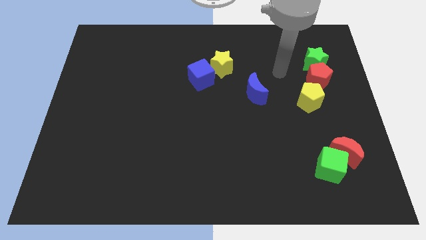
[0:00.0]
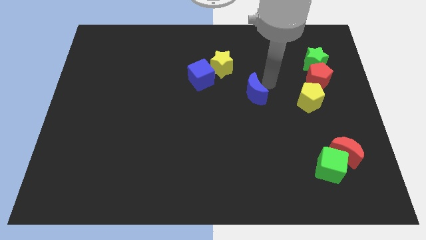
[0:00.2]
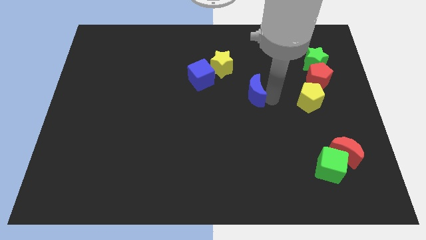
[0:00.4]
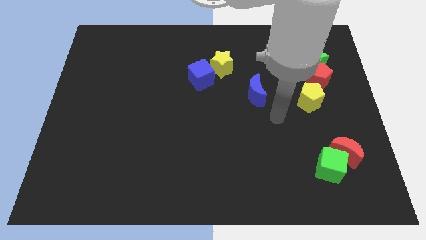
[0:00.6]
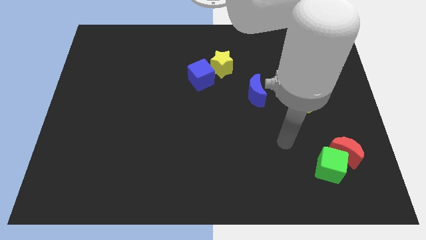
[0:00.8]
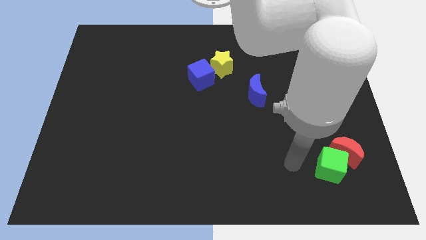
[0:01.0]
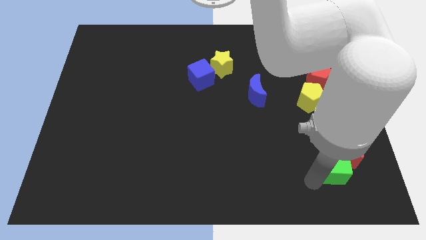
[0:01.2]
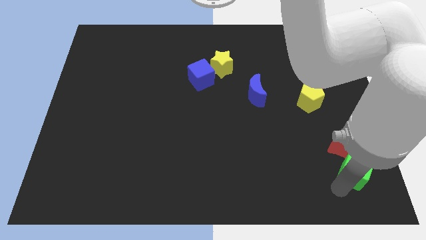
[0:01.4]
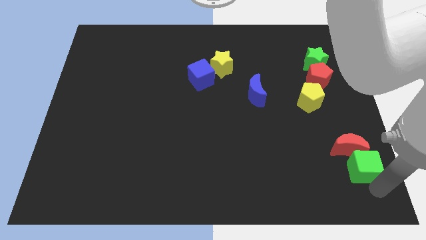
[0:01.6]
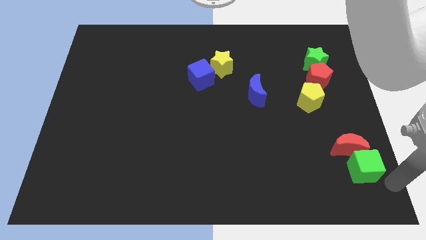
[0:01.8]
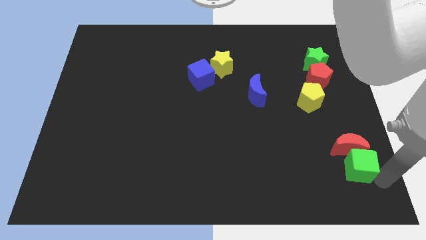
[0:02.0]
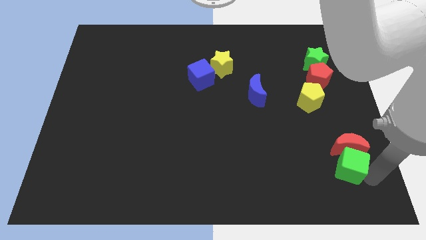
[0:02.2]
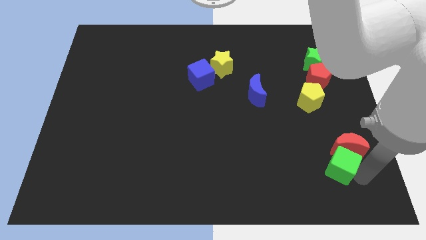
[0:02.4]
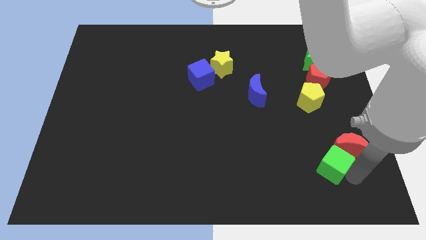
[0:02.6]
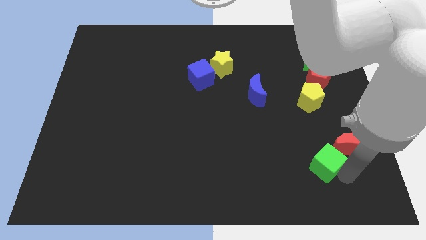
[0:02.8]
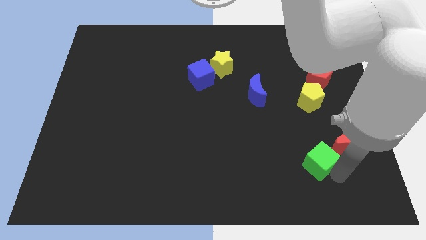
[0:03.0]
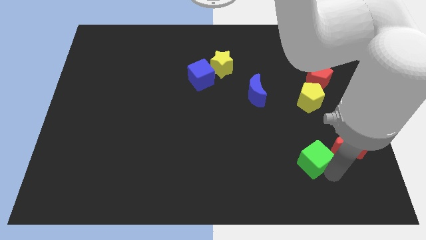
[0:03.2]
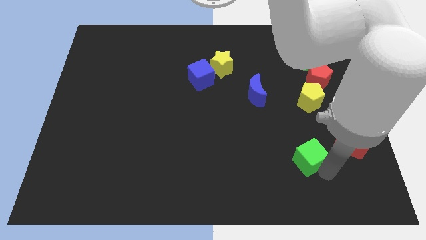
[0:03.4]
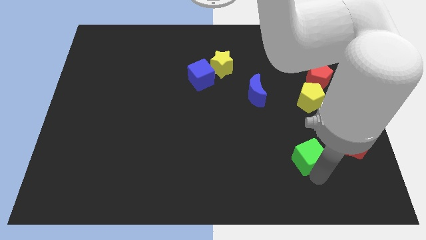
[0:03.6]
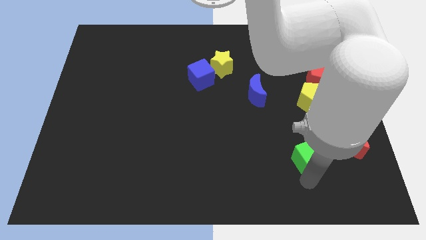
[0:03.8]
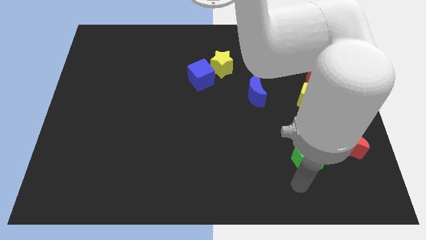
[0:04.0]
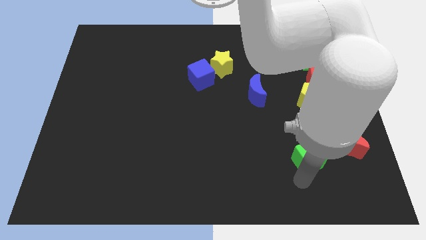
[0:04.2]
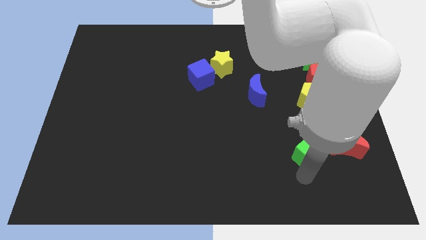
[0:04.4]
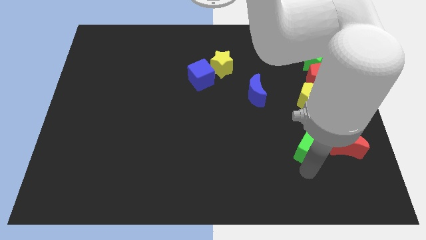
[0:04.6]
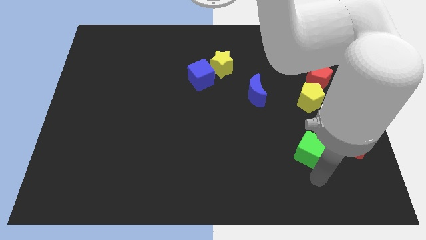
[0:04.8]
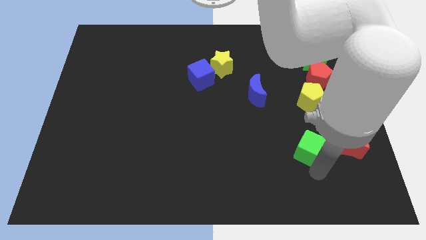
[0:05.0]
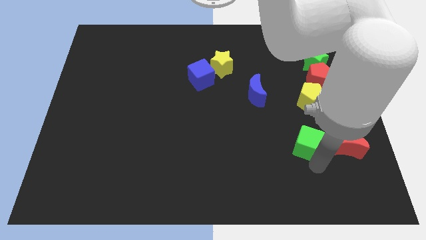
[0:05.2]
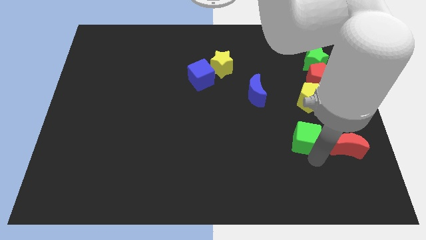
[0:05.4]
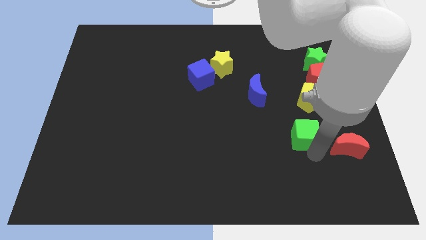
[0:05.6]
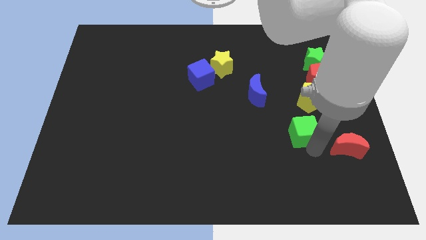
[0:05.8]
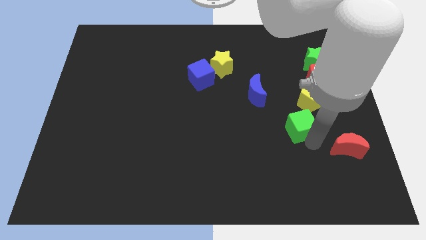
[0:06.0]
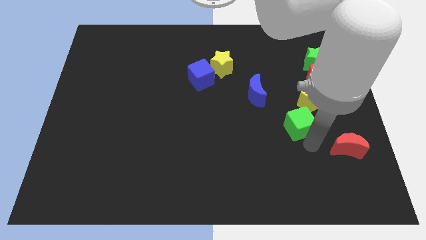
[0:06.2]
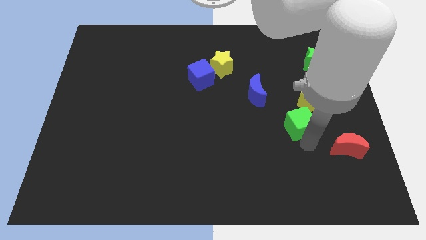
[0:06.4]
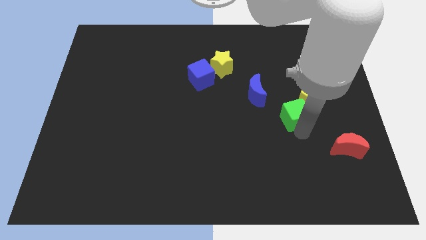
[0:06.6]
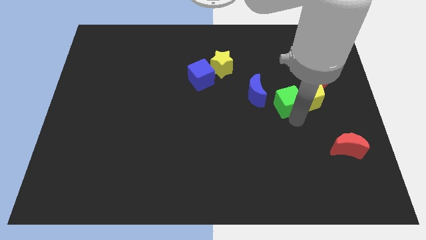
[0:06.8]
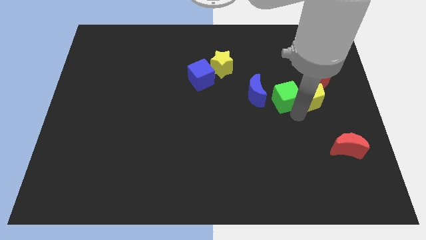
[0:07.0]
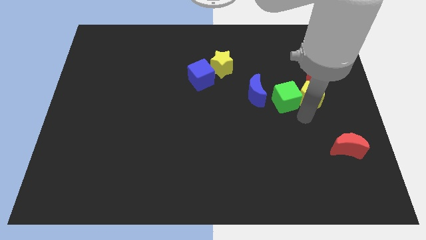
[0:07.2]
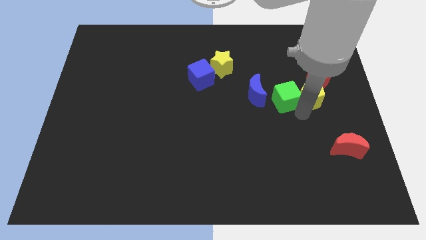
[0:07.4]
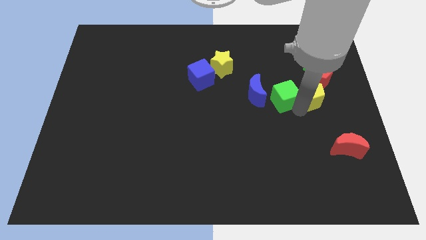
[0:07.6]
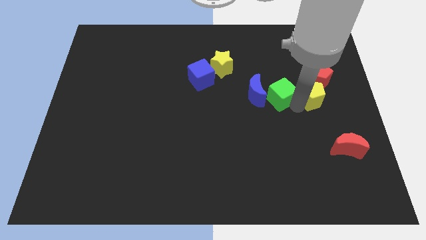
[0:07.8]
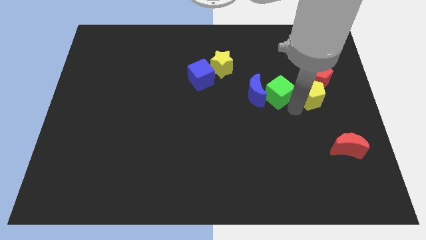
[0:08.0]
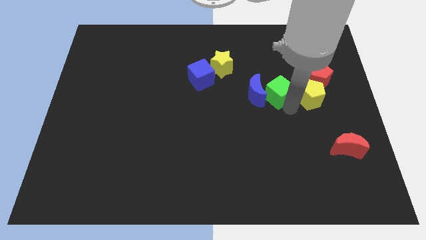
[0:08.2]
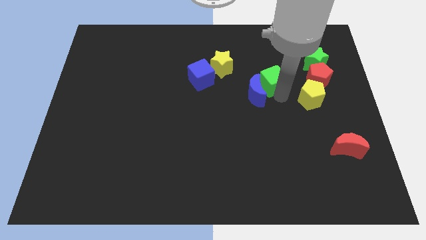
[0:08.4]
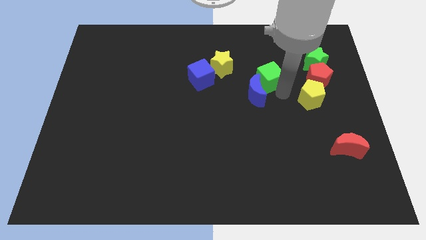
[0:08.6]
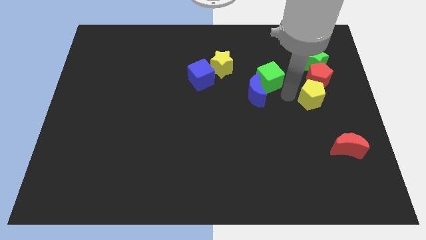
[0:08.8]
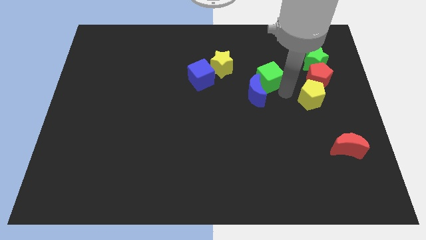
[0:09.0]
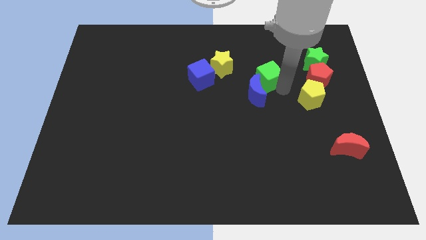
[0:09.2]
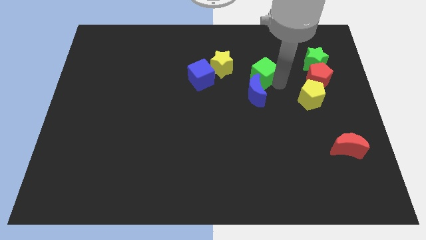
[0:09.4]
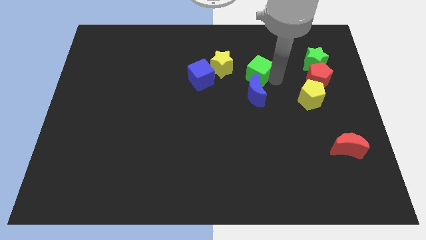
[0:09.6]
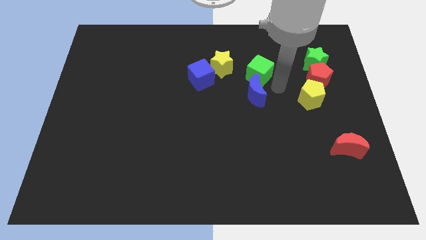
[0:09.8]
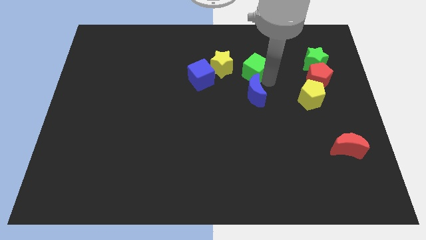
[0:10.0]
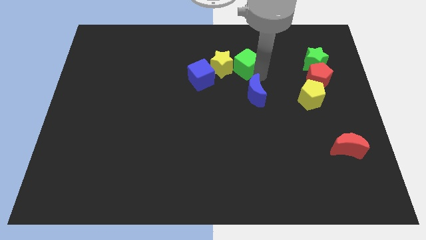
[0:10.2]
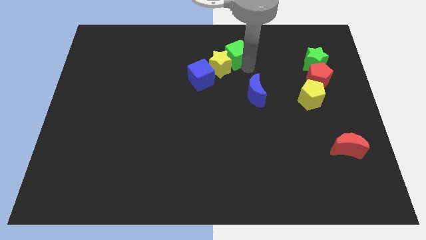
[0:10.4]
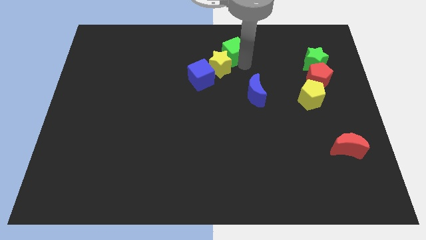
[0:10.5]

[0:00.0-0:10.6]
push the green cube to the top
